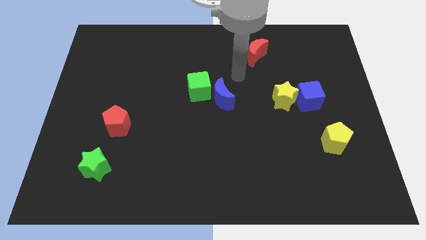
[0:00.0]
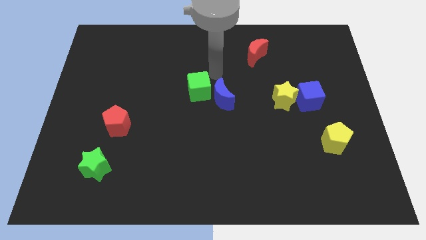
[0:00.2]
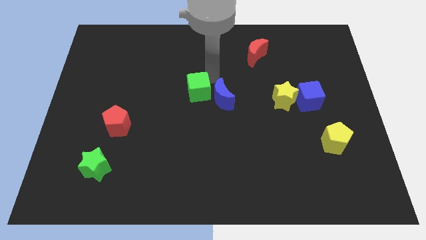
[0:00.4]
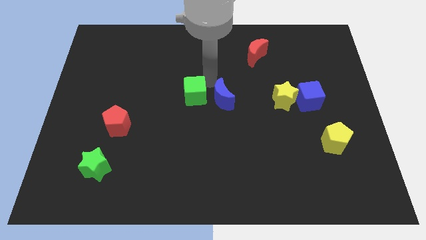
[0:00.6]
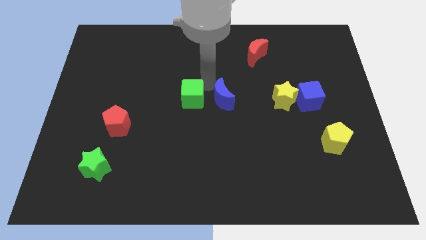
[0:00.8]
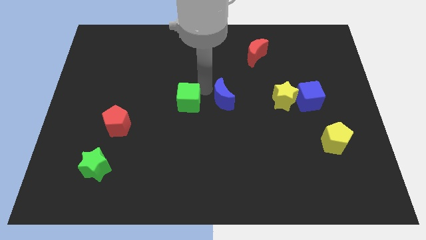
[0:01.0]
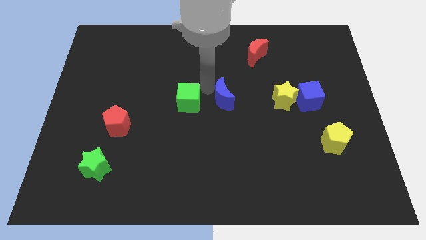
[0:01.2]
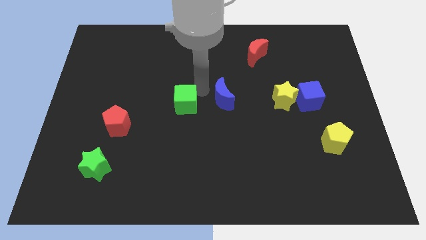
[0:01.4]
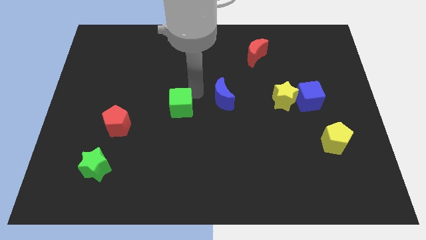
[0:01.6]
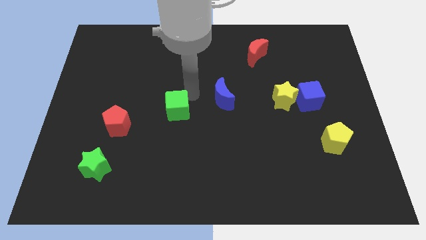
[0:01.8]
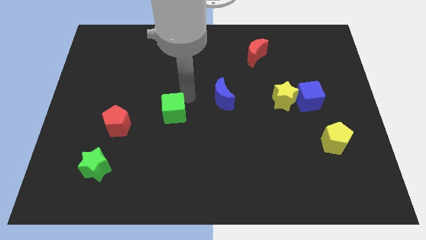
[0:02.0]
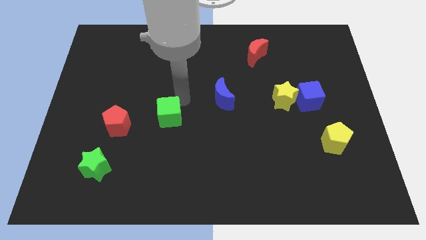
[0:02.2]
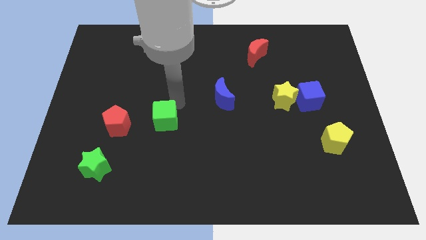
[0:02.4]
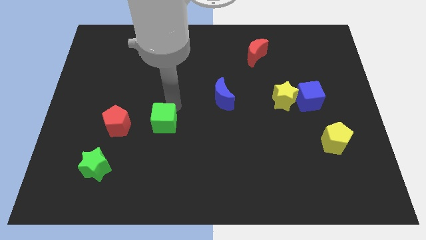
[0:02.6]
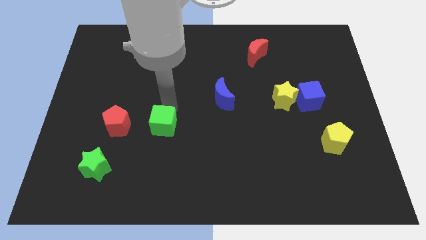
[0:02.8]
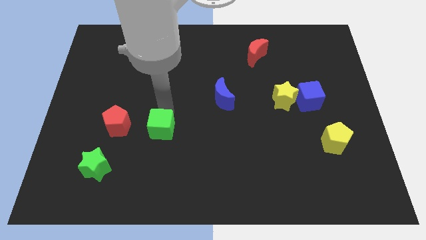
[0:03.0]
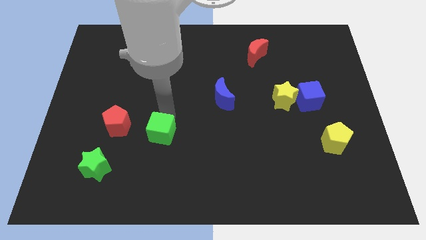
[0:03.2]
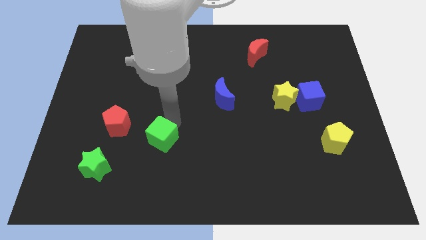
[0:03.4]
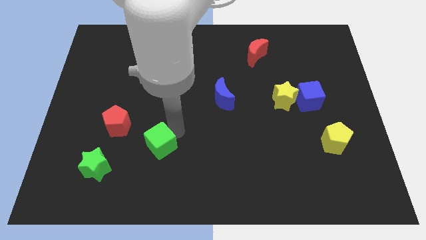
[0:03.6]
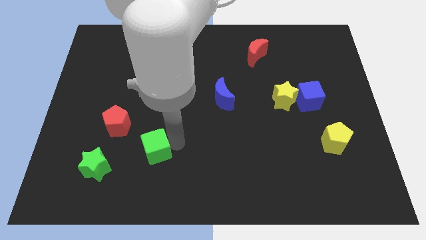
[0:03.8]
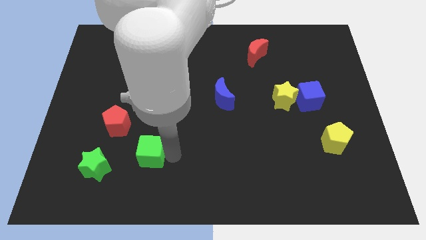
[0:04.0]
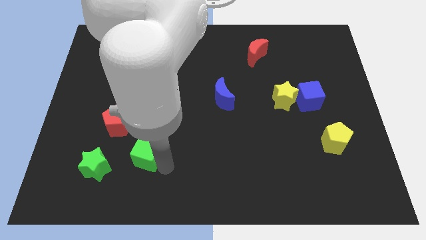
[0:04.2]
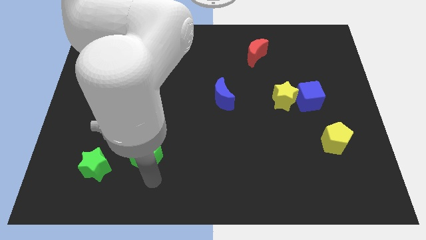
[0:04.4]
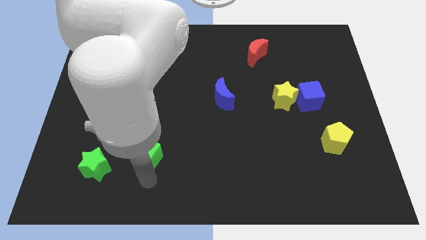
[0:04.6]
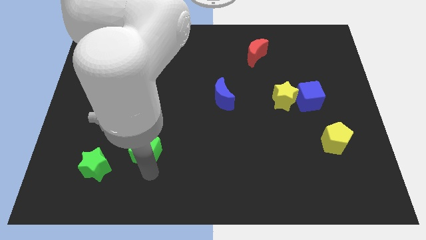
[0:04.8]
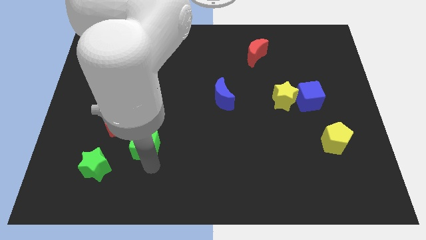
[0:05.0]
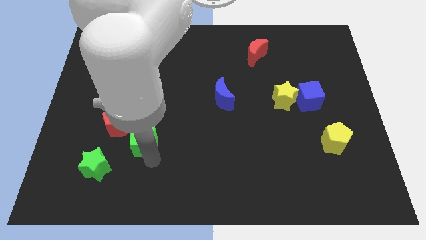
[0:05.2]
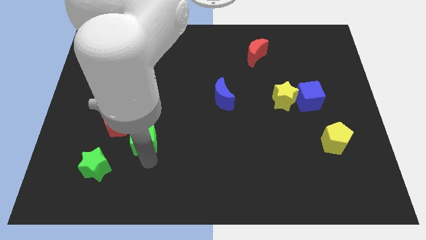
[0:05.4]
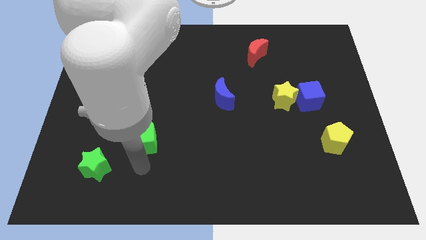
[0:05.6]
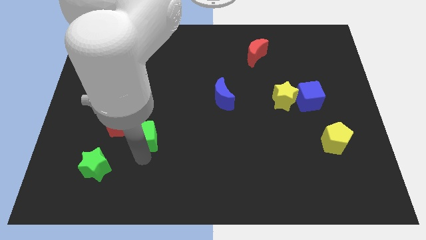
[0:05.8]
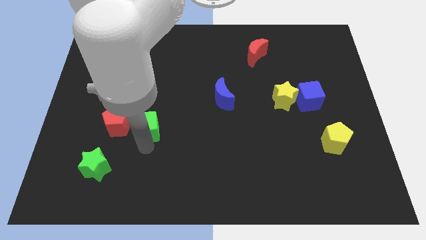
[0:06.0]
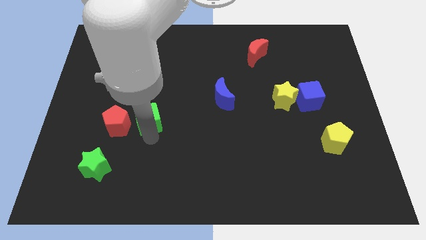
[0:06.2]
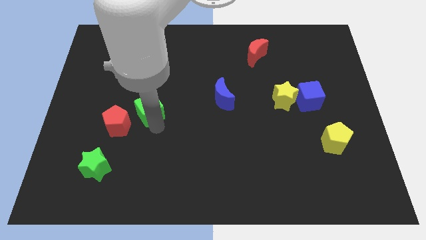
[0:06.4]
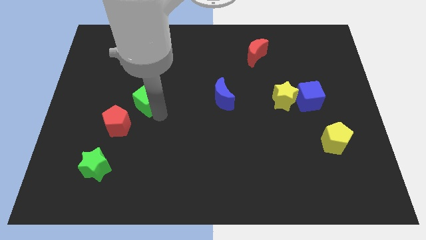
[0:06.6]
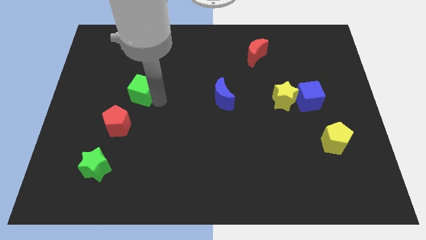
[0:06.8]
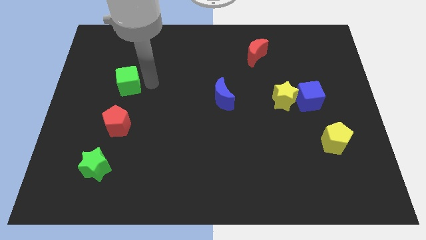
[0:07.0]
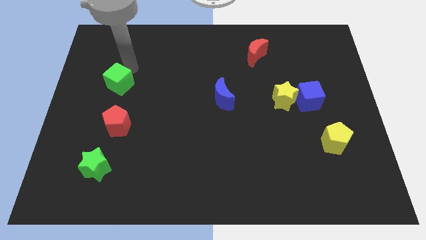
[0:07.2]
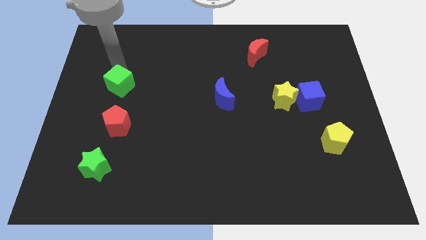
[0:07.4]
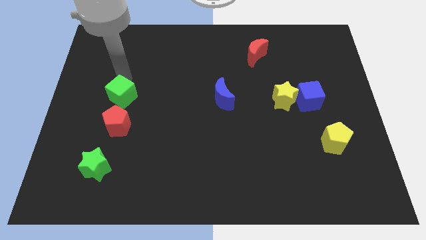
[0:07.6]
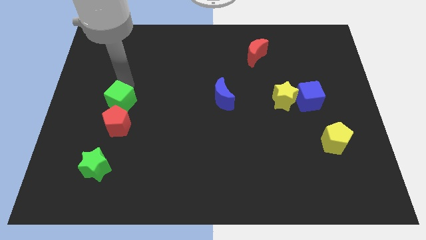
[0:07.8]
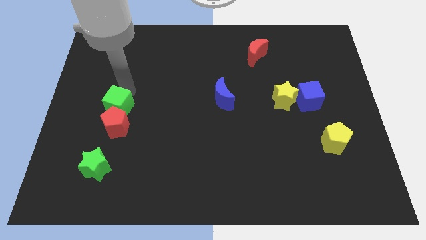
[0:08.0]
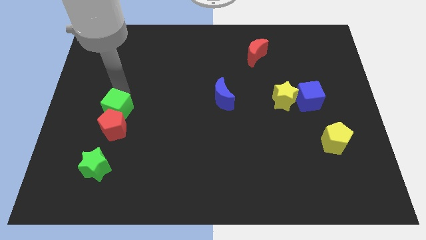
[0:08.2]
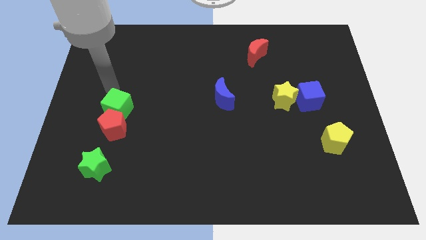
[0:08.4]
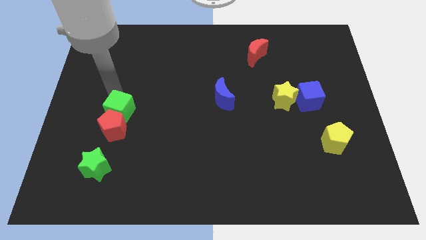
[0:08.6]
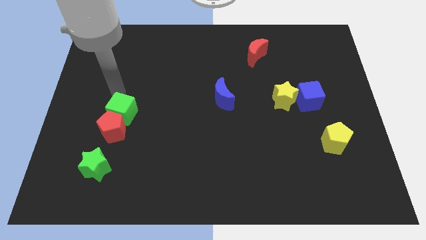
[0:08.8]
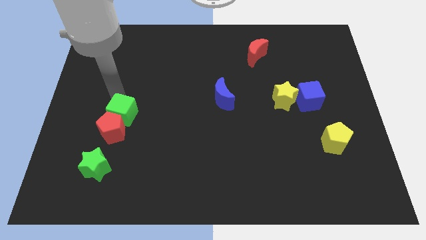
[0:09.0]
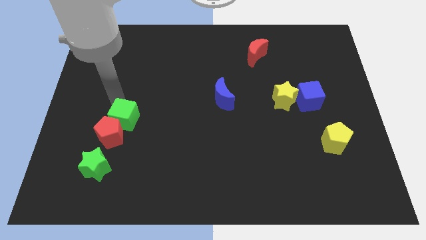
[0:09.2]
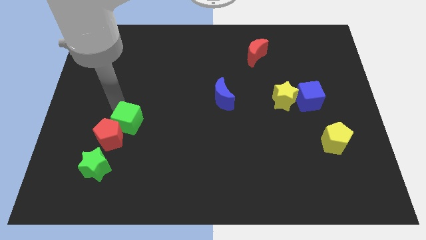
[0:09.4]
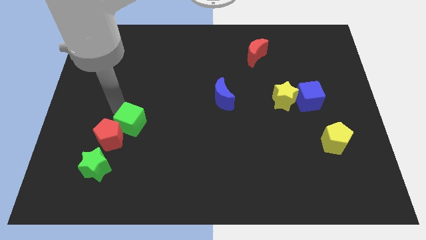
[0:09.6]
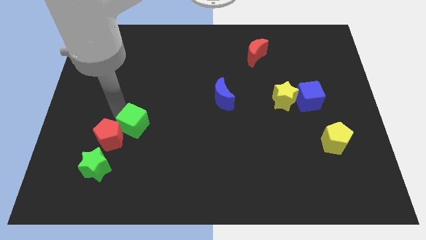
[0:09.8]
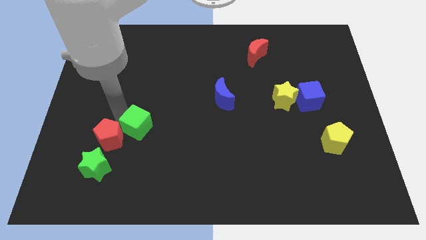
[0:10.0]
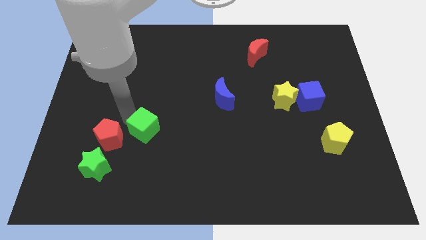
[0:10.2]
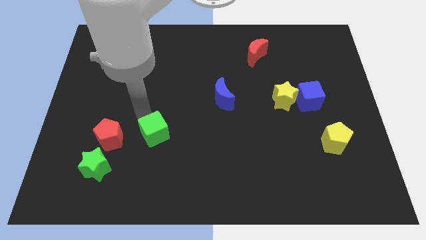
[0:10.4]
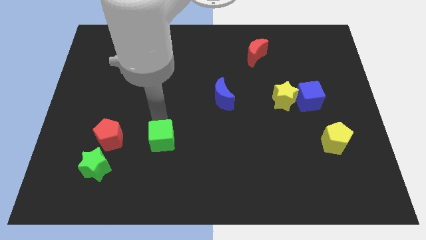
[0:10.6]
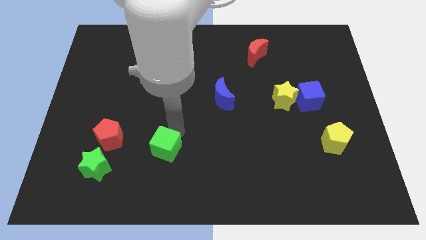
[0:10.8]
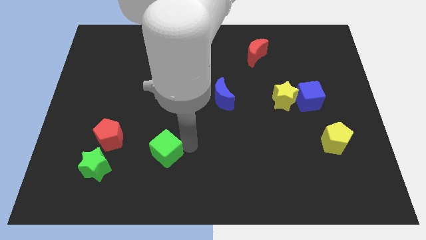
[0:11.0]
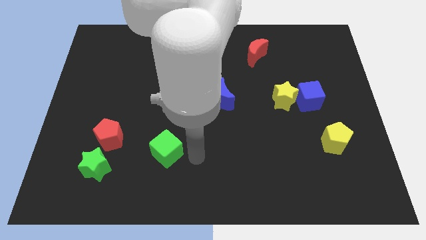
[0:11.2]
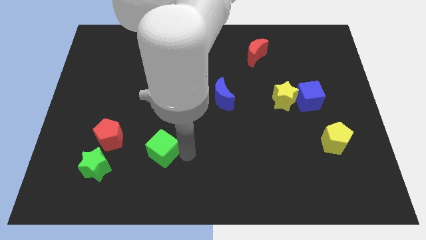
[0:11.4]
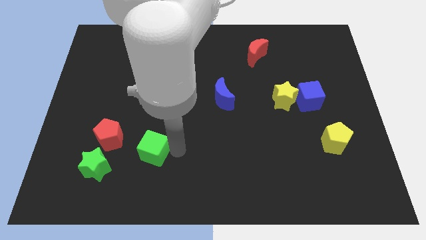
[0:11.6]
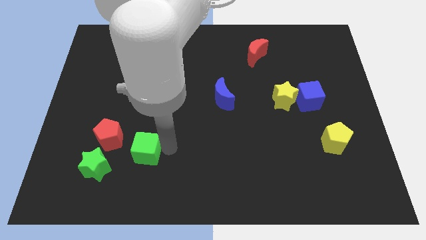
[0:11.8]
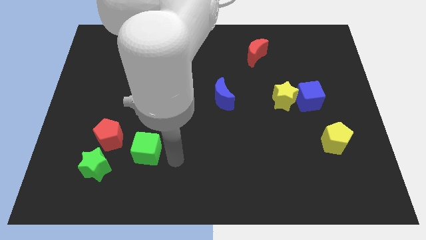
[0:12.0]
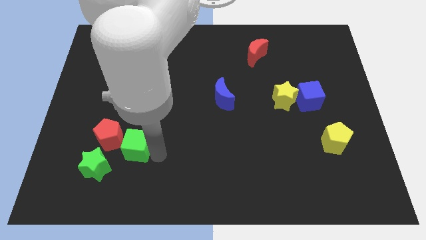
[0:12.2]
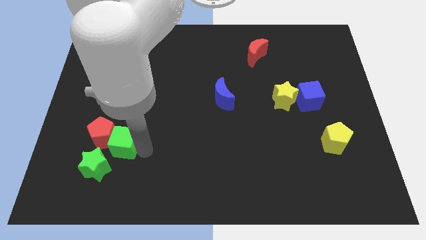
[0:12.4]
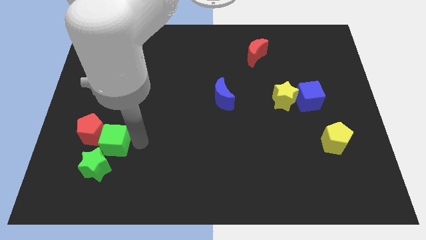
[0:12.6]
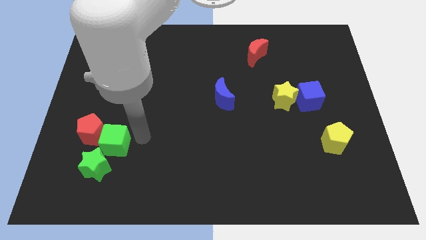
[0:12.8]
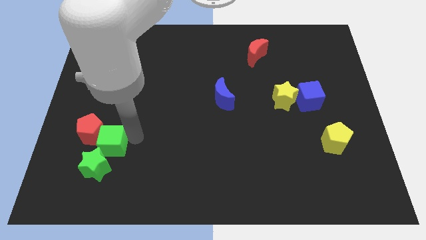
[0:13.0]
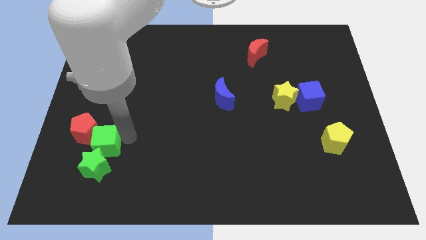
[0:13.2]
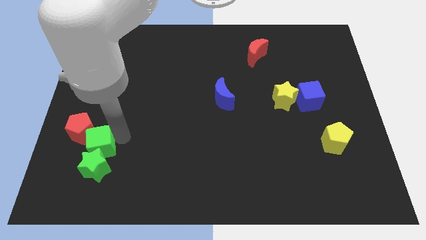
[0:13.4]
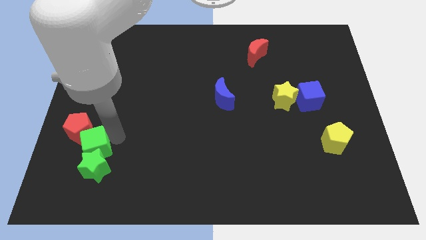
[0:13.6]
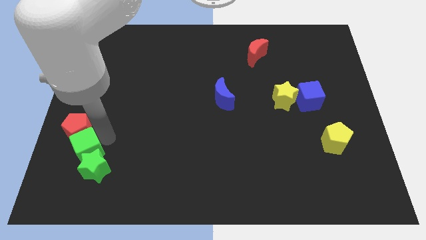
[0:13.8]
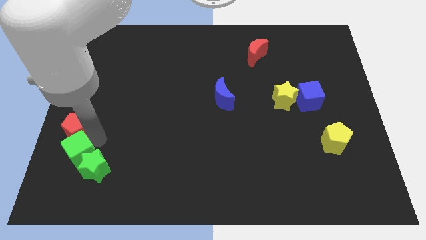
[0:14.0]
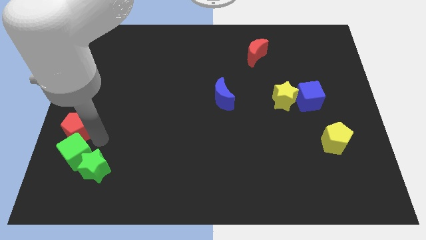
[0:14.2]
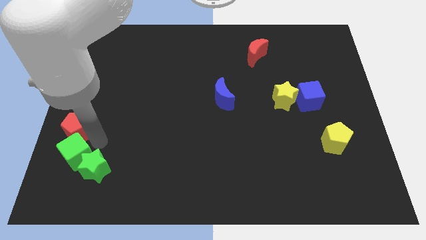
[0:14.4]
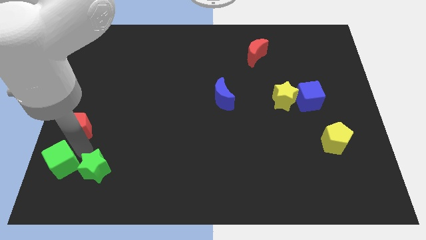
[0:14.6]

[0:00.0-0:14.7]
move the green cube to the bottom left corner
